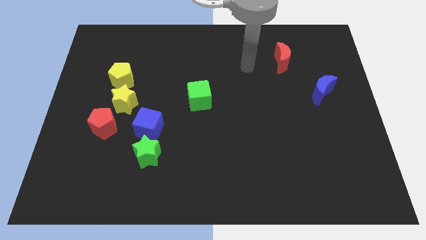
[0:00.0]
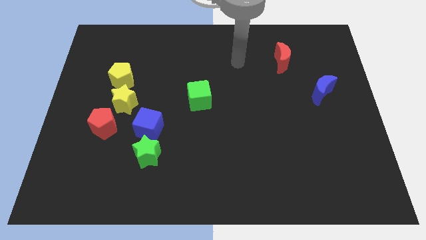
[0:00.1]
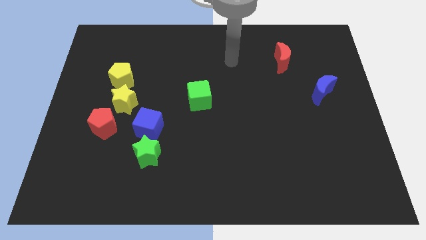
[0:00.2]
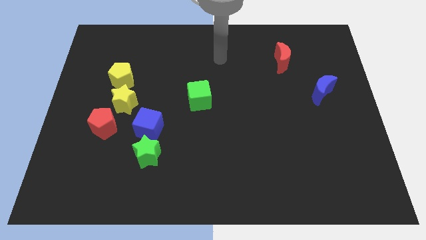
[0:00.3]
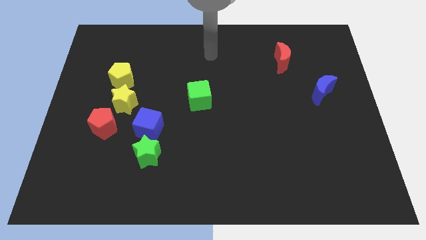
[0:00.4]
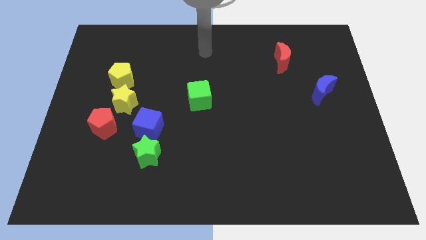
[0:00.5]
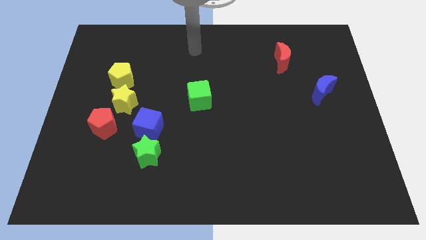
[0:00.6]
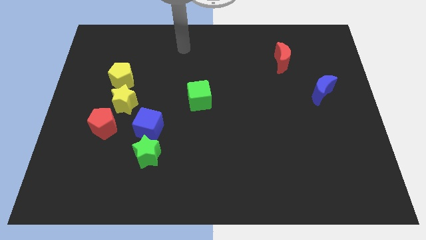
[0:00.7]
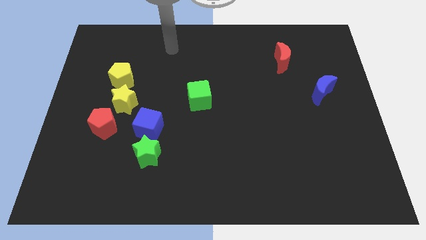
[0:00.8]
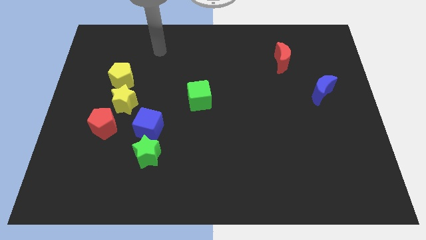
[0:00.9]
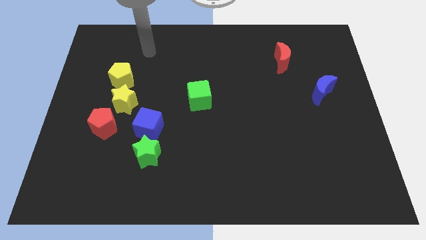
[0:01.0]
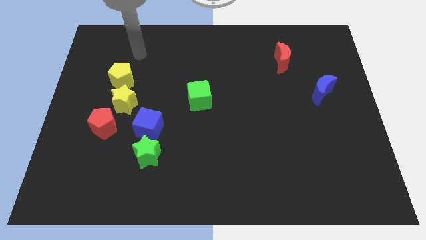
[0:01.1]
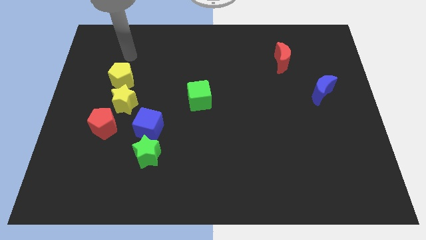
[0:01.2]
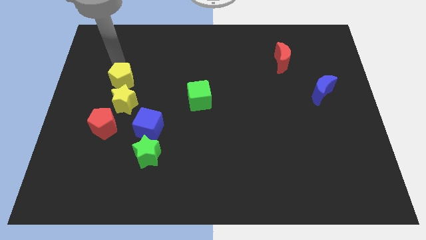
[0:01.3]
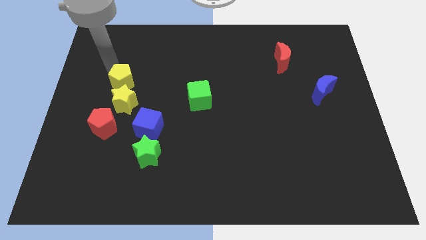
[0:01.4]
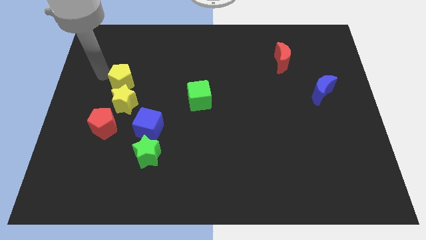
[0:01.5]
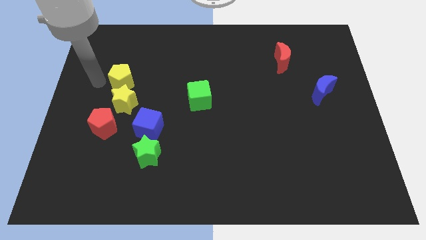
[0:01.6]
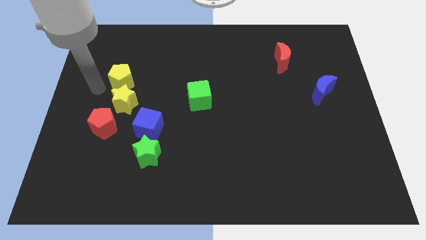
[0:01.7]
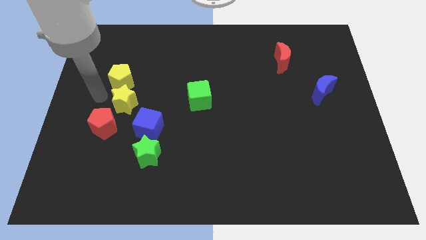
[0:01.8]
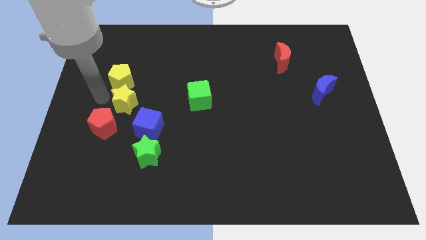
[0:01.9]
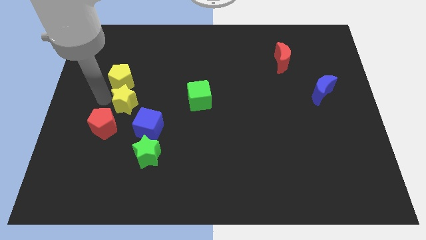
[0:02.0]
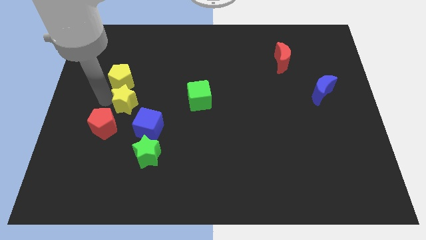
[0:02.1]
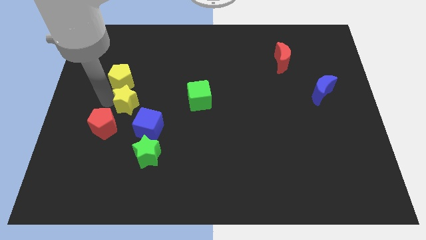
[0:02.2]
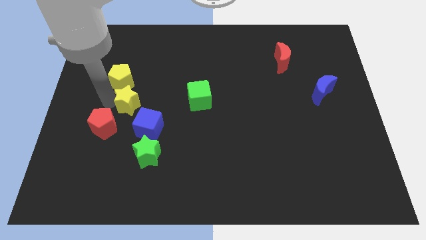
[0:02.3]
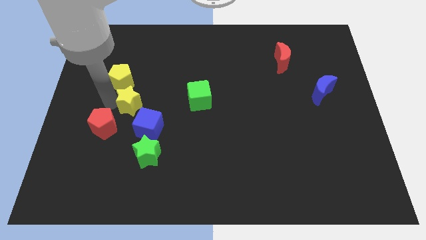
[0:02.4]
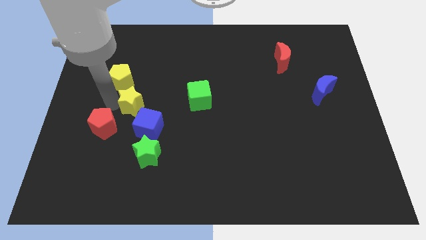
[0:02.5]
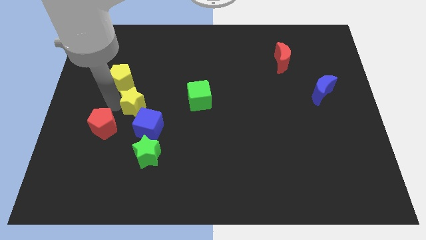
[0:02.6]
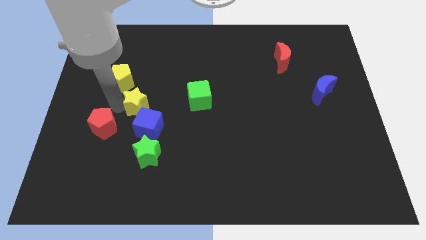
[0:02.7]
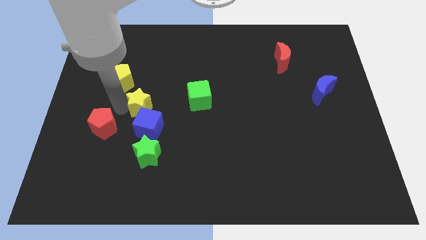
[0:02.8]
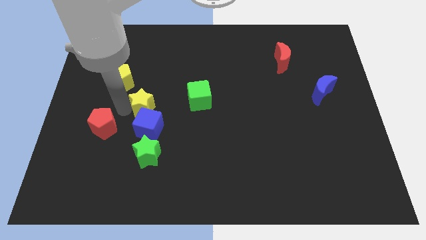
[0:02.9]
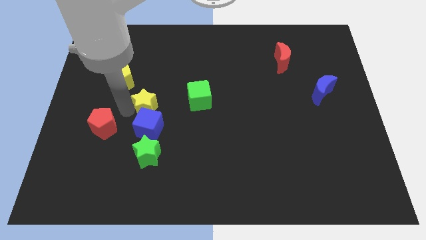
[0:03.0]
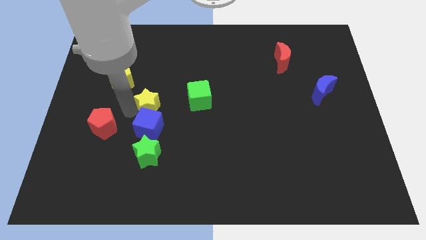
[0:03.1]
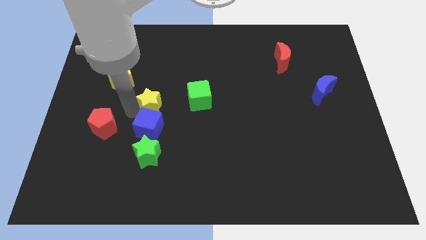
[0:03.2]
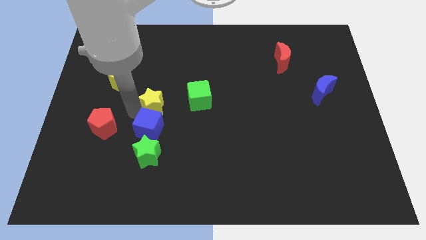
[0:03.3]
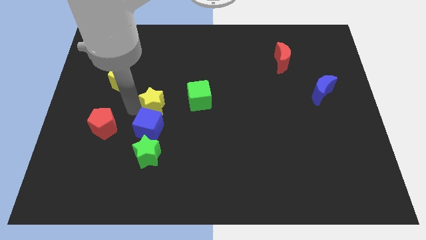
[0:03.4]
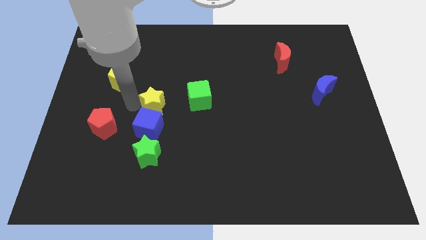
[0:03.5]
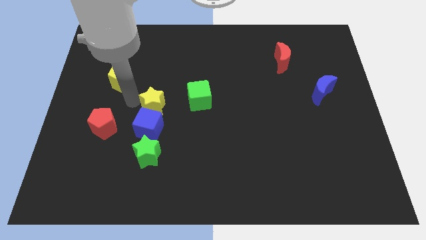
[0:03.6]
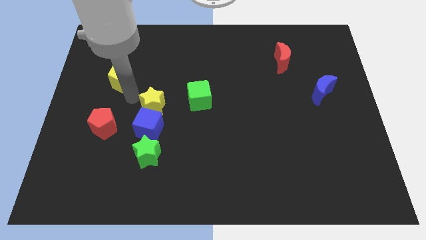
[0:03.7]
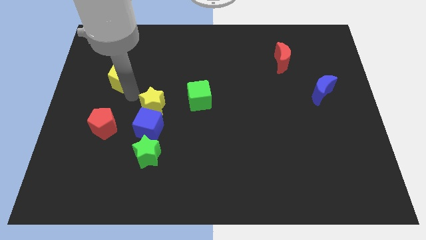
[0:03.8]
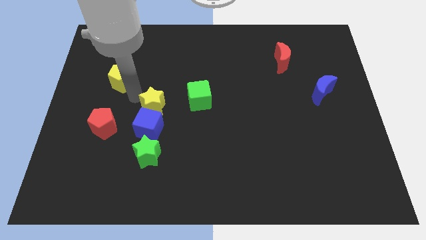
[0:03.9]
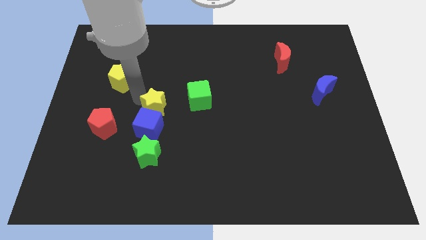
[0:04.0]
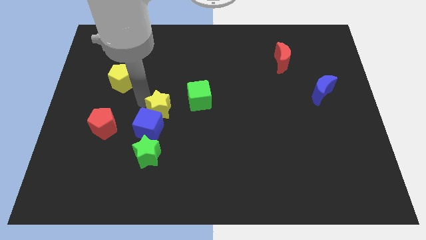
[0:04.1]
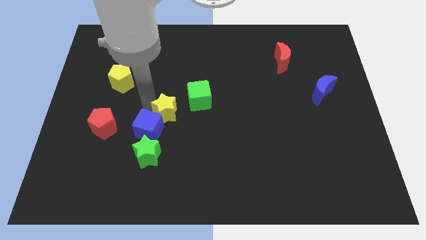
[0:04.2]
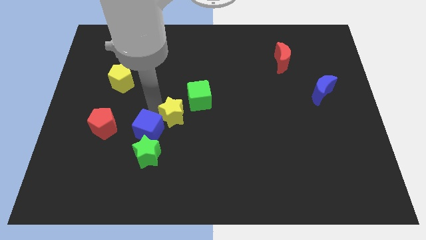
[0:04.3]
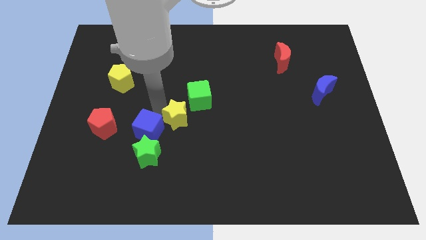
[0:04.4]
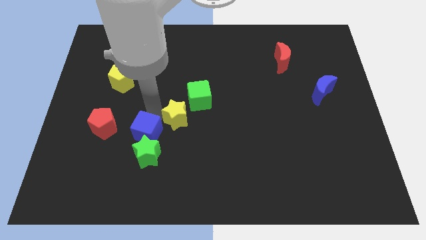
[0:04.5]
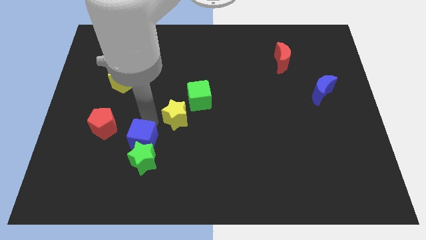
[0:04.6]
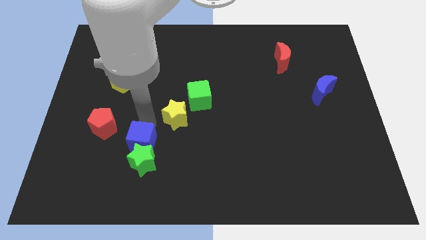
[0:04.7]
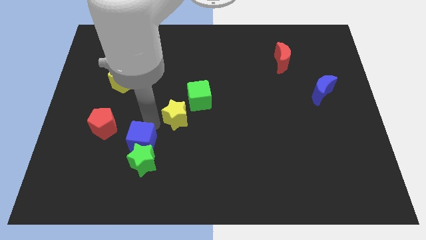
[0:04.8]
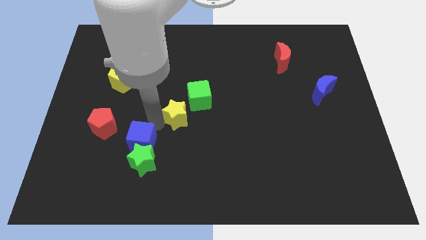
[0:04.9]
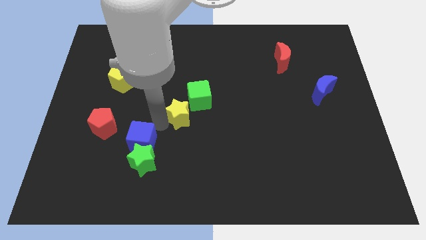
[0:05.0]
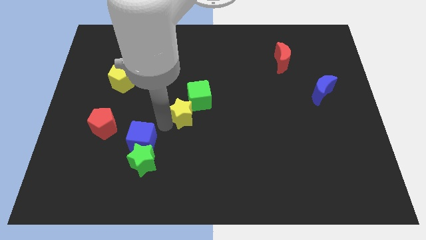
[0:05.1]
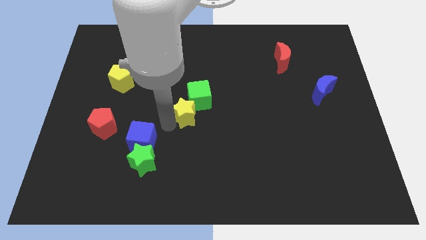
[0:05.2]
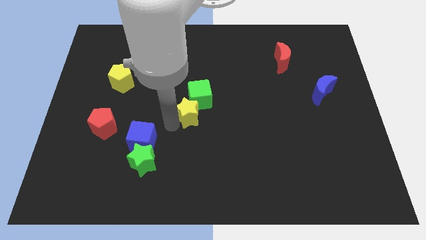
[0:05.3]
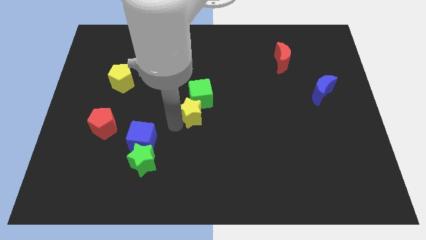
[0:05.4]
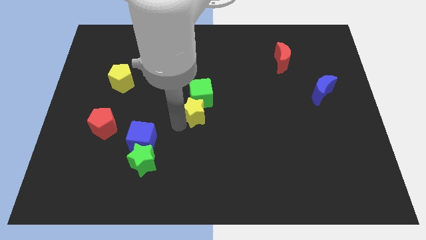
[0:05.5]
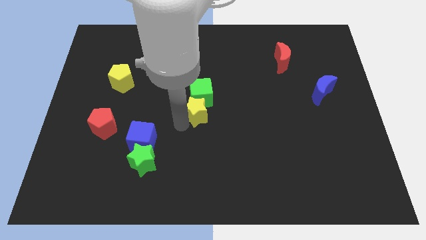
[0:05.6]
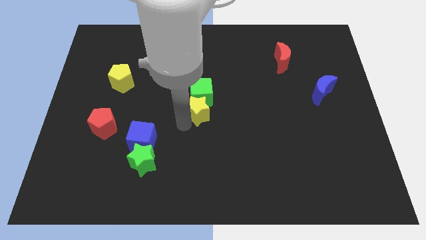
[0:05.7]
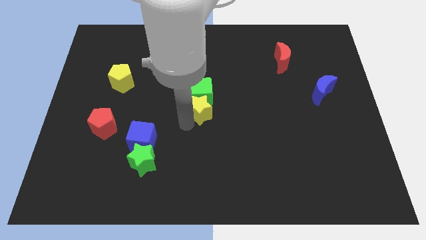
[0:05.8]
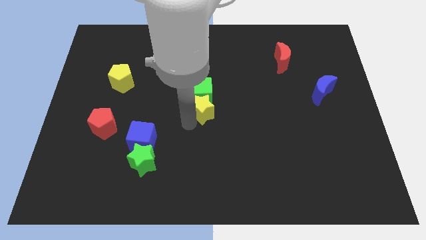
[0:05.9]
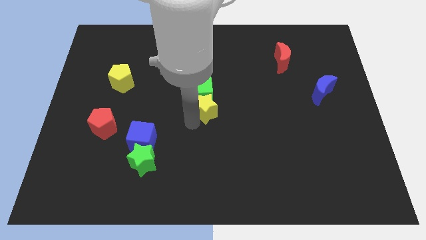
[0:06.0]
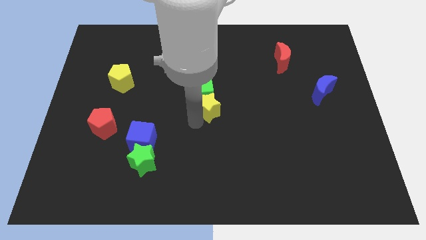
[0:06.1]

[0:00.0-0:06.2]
push the yellow star right

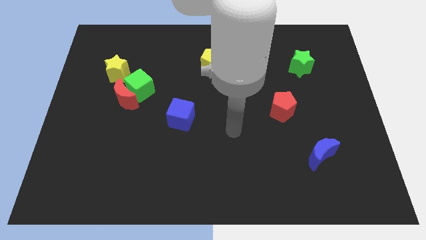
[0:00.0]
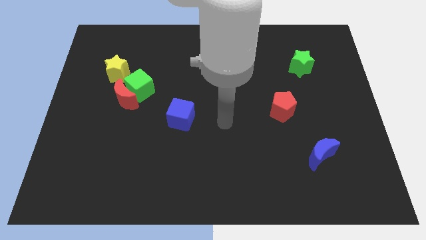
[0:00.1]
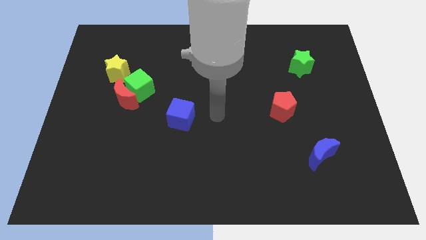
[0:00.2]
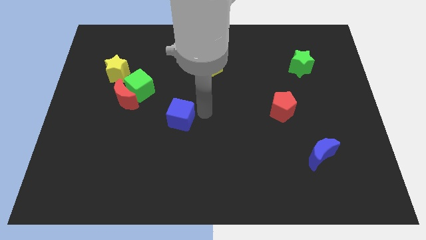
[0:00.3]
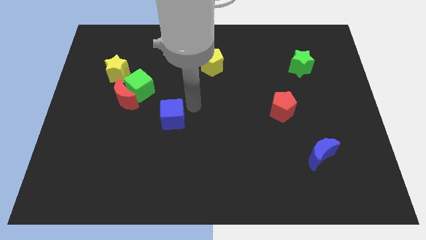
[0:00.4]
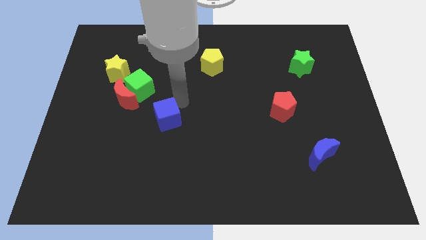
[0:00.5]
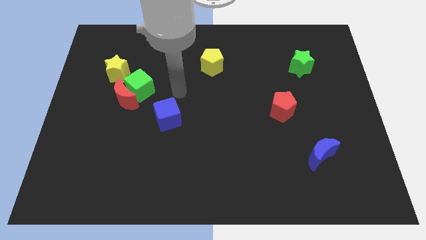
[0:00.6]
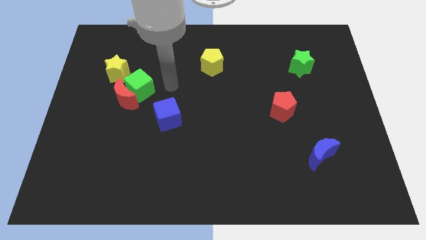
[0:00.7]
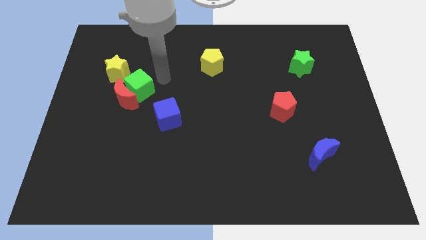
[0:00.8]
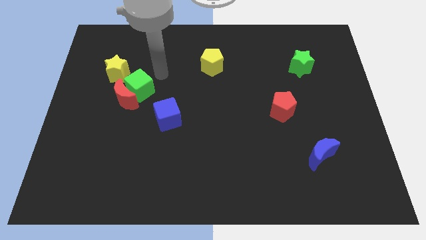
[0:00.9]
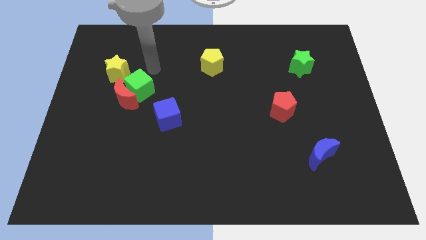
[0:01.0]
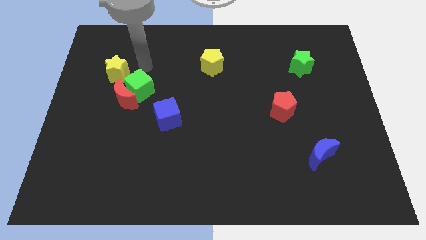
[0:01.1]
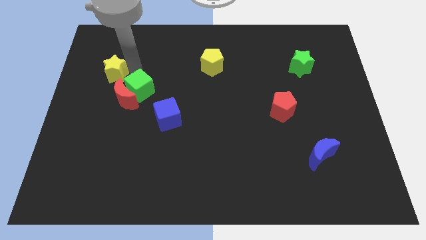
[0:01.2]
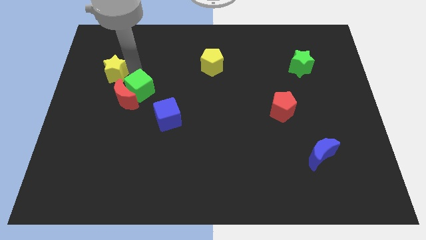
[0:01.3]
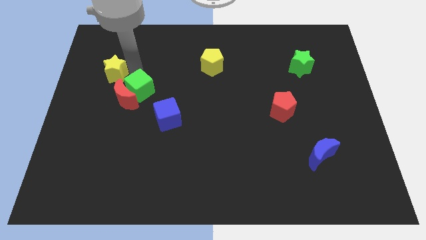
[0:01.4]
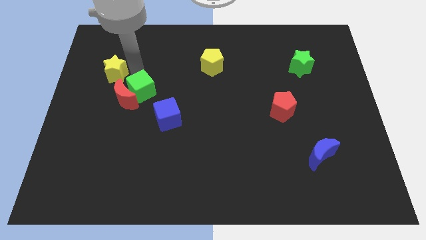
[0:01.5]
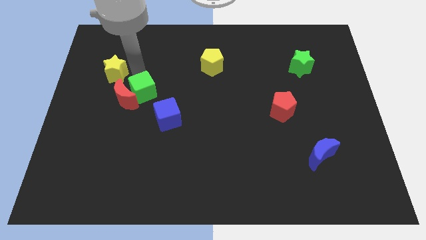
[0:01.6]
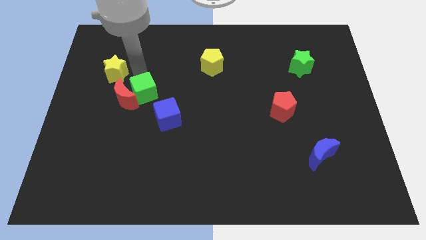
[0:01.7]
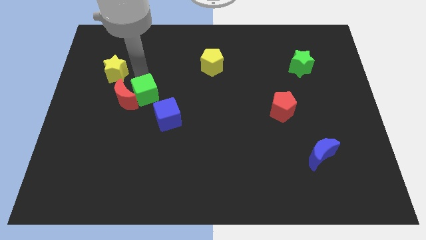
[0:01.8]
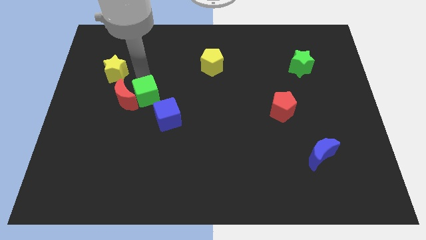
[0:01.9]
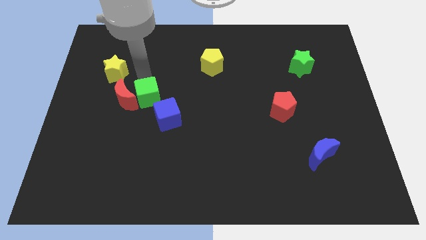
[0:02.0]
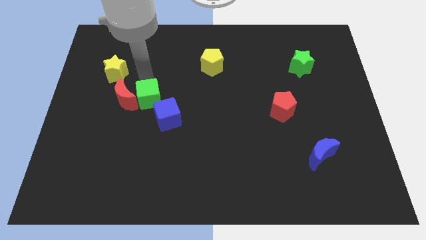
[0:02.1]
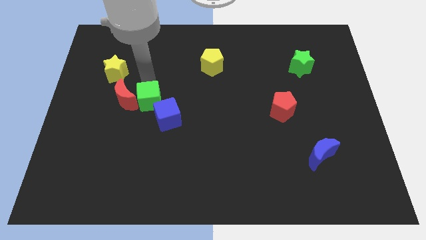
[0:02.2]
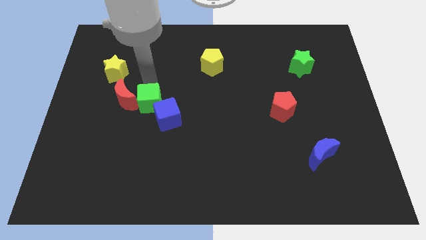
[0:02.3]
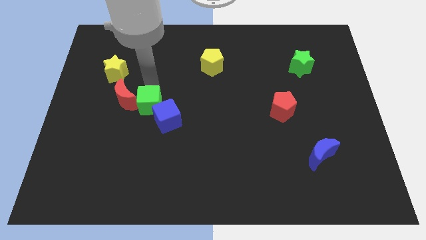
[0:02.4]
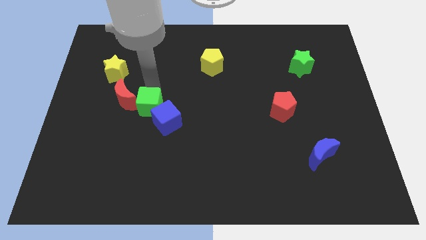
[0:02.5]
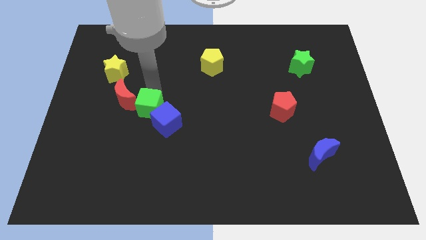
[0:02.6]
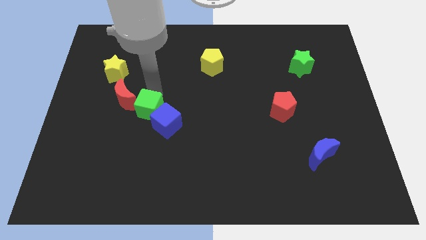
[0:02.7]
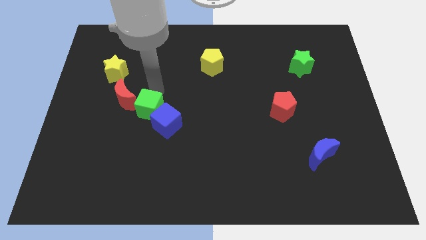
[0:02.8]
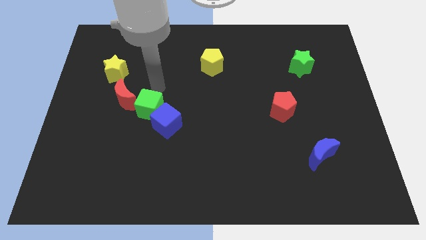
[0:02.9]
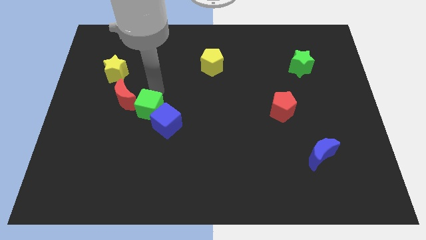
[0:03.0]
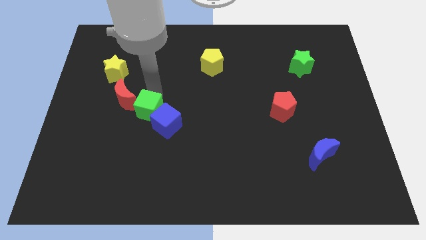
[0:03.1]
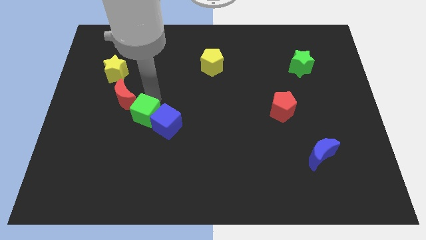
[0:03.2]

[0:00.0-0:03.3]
push the green cube a bit down and to the right
